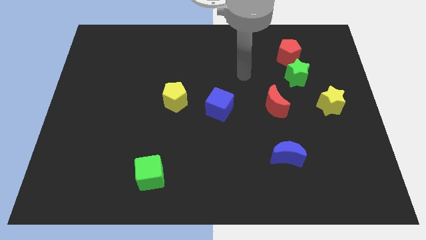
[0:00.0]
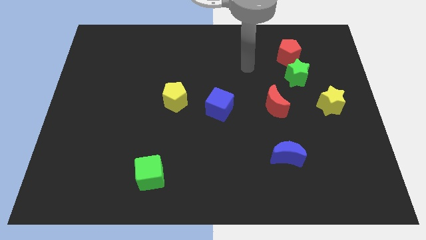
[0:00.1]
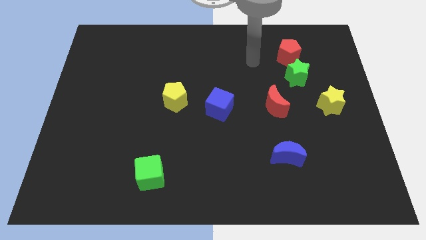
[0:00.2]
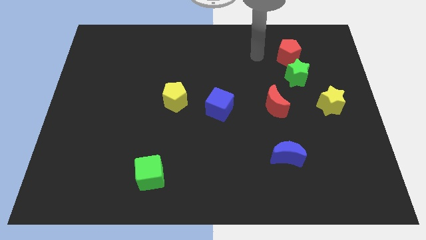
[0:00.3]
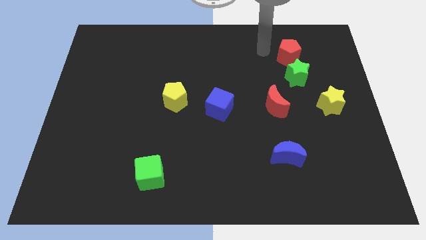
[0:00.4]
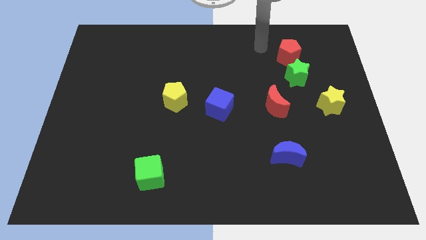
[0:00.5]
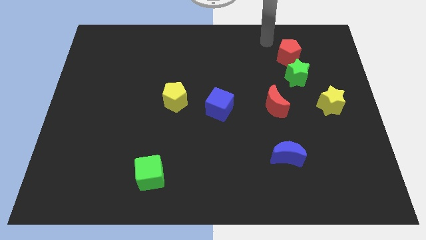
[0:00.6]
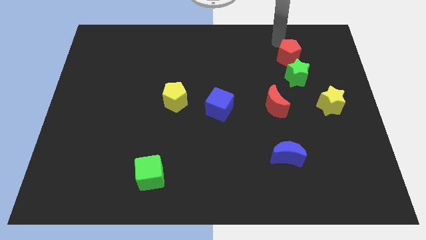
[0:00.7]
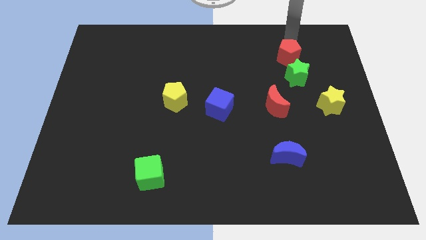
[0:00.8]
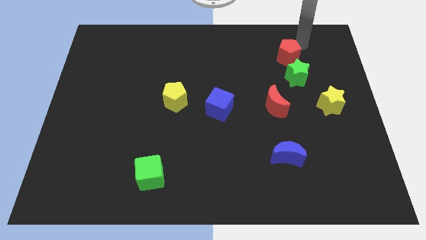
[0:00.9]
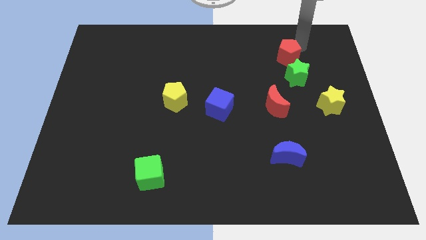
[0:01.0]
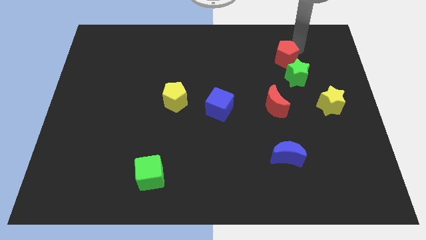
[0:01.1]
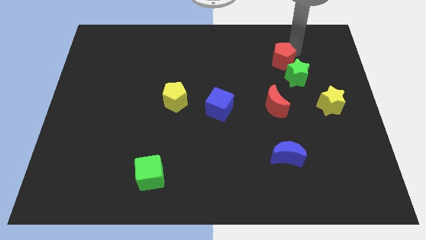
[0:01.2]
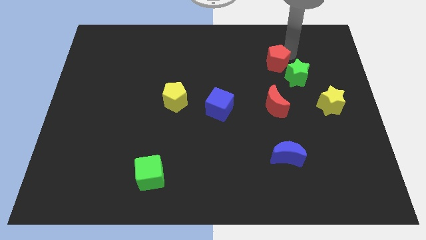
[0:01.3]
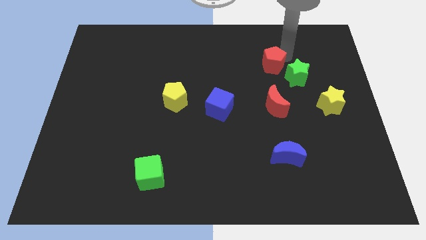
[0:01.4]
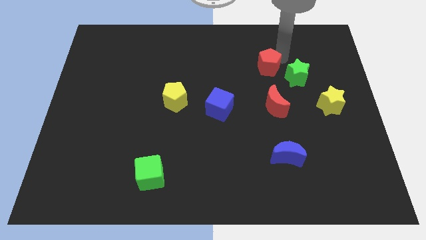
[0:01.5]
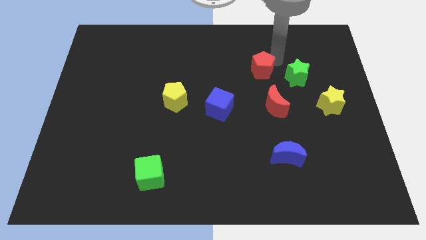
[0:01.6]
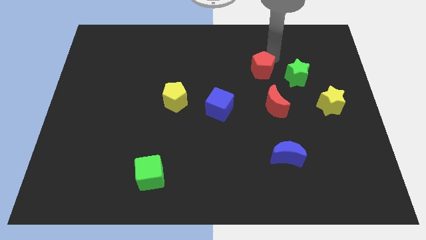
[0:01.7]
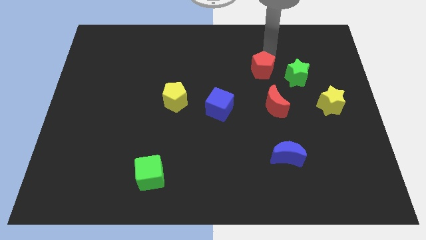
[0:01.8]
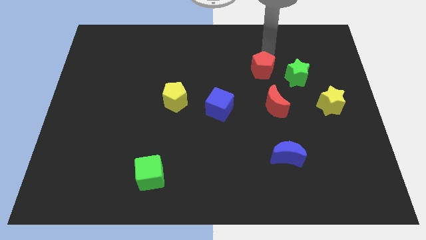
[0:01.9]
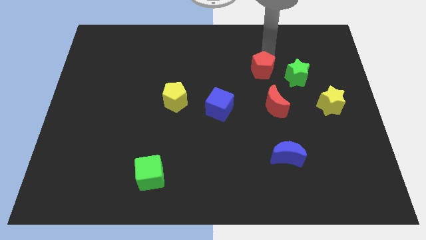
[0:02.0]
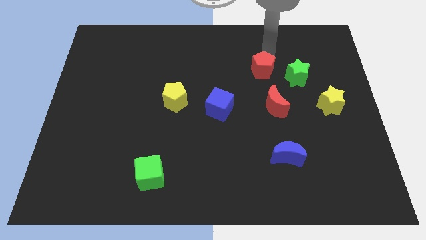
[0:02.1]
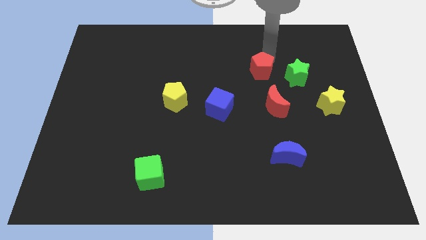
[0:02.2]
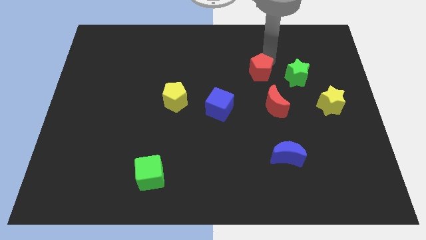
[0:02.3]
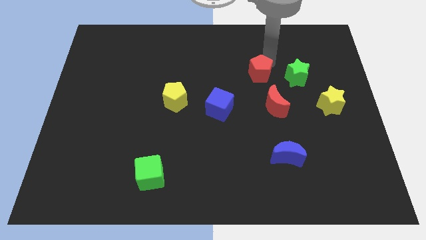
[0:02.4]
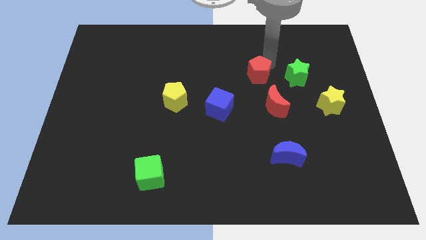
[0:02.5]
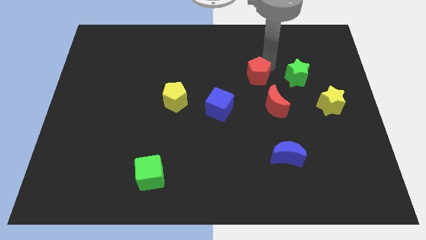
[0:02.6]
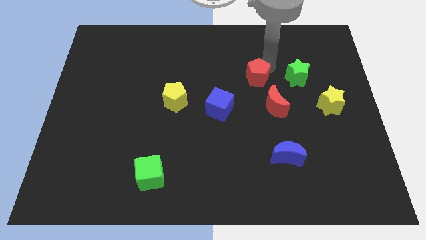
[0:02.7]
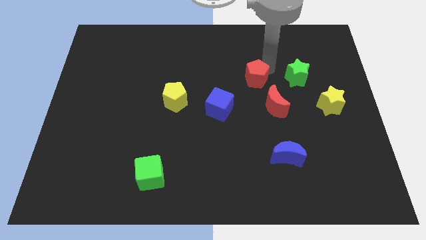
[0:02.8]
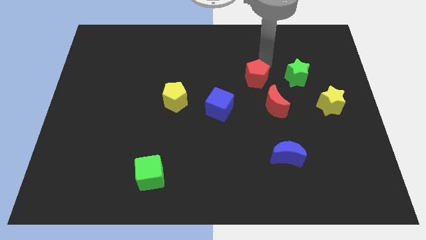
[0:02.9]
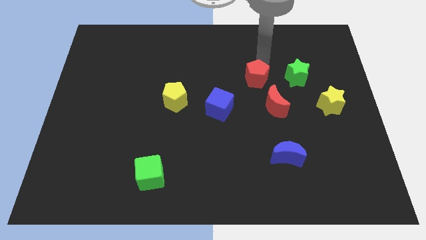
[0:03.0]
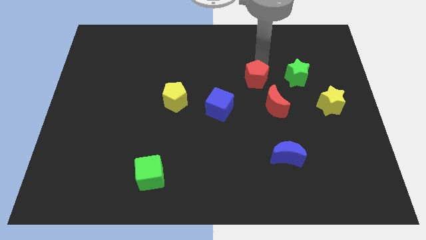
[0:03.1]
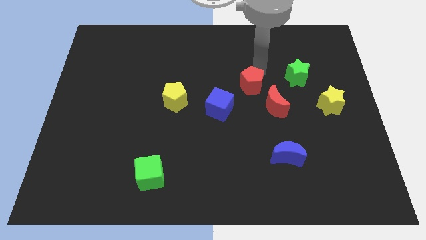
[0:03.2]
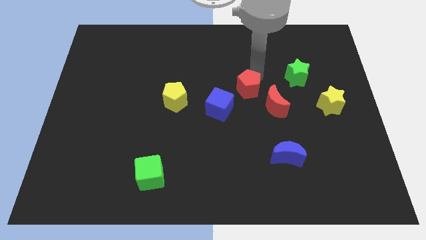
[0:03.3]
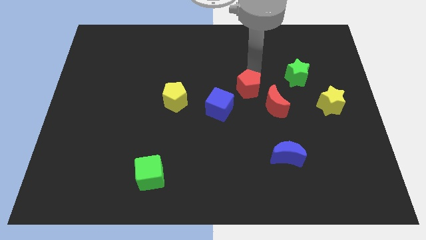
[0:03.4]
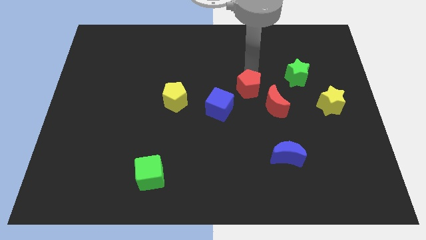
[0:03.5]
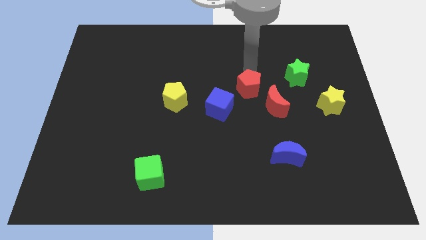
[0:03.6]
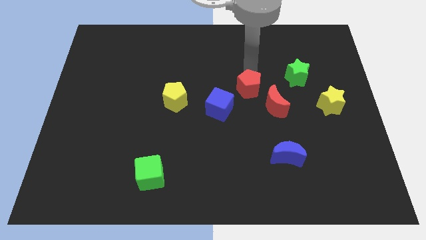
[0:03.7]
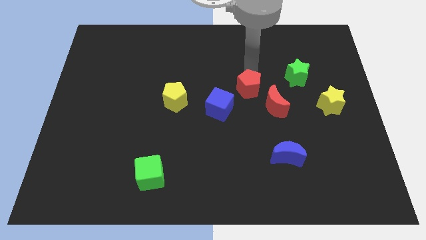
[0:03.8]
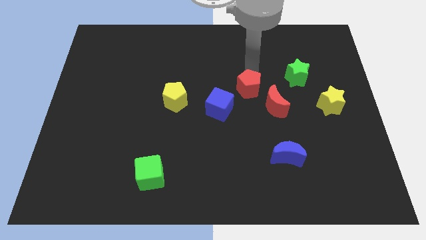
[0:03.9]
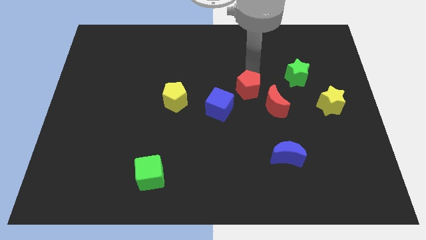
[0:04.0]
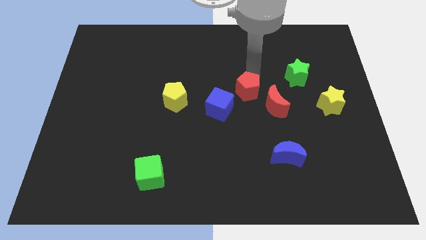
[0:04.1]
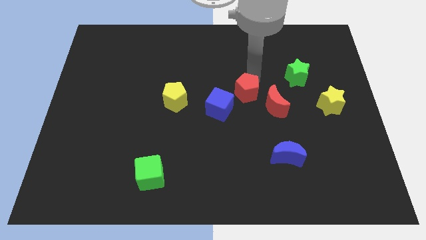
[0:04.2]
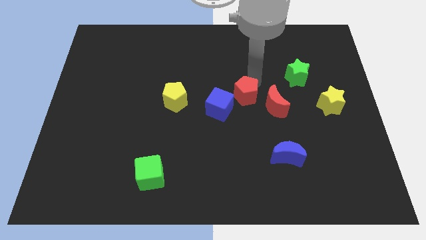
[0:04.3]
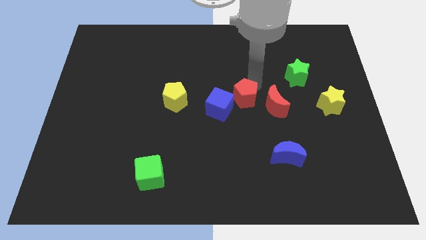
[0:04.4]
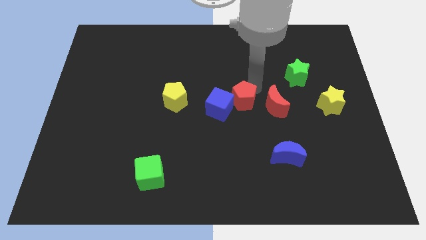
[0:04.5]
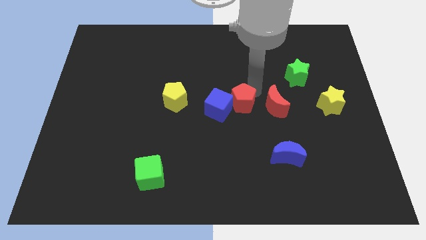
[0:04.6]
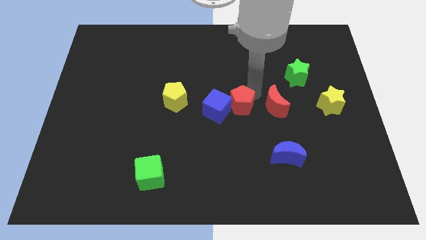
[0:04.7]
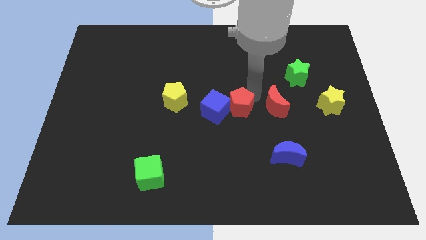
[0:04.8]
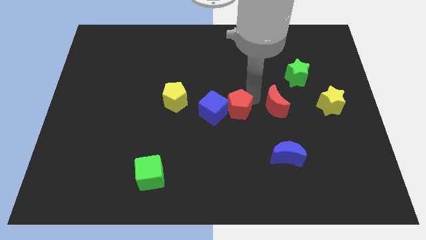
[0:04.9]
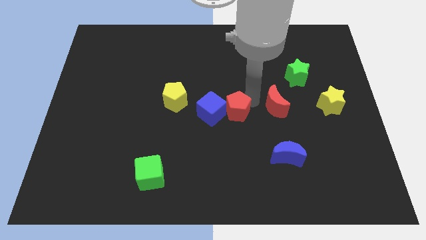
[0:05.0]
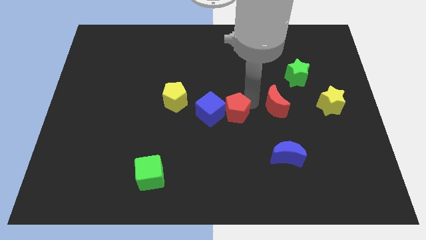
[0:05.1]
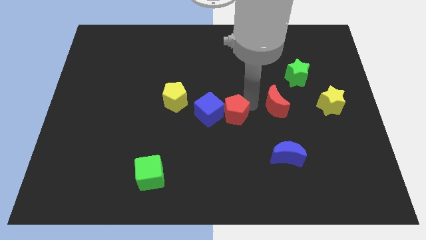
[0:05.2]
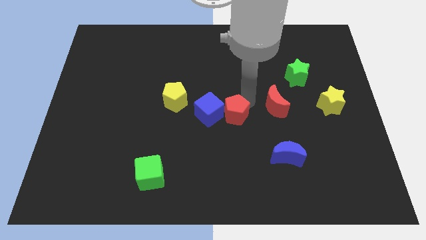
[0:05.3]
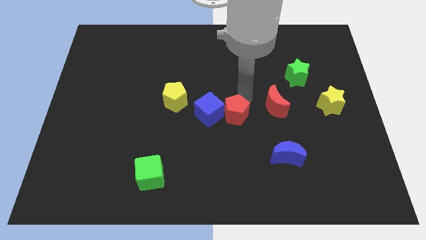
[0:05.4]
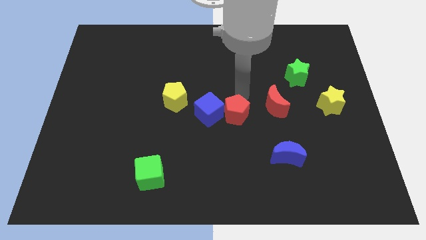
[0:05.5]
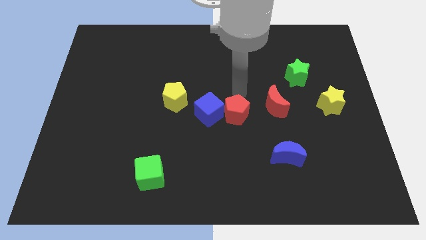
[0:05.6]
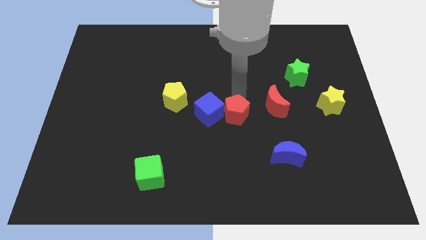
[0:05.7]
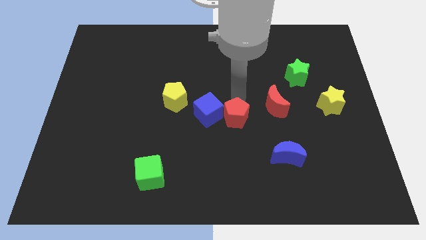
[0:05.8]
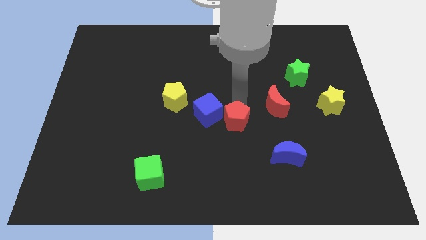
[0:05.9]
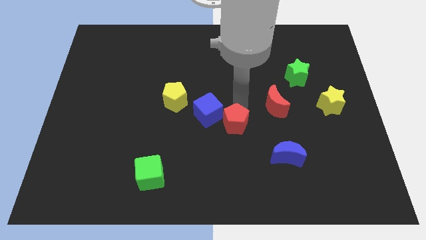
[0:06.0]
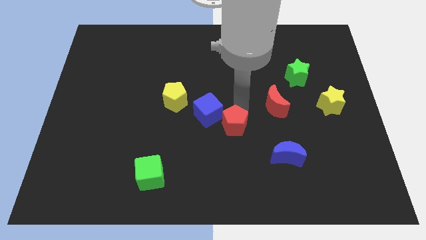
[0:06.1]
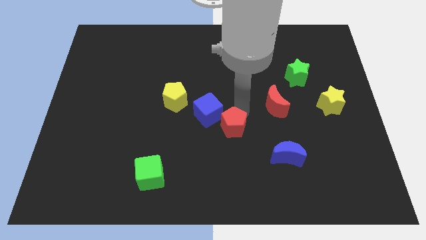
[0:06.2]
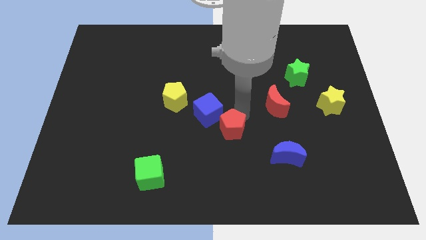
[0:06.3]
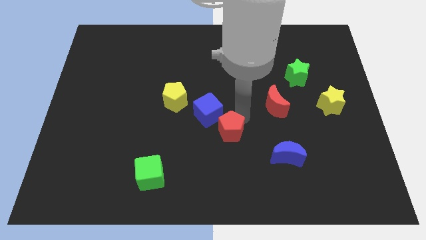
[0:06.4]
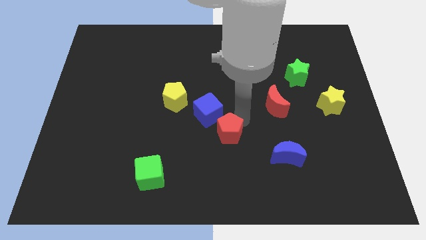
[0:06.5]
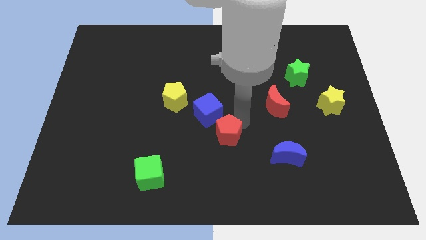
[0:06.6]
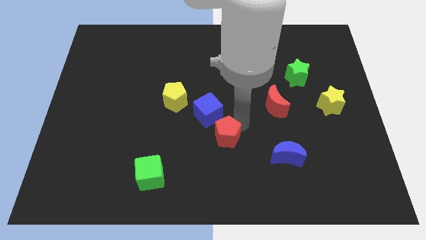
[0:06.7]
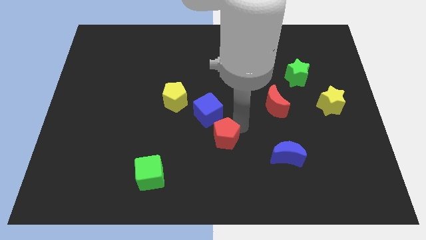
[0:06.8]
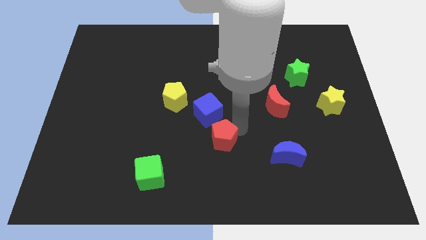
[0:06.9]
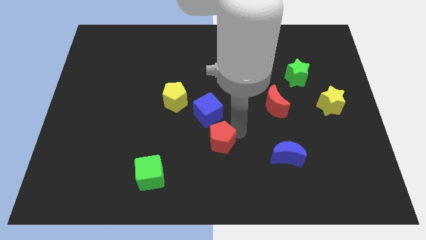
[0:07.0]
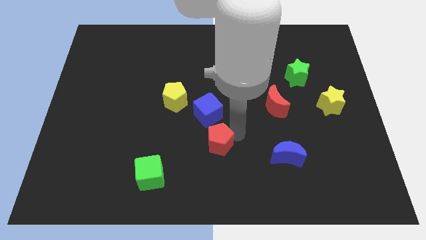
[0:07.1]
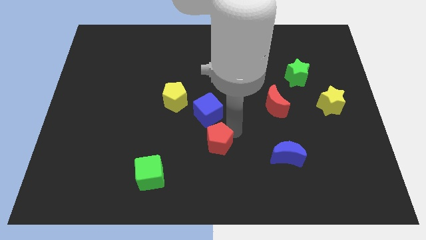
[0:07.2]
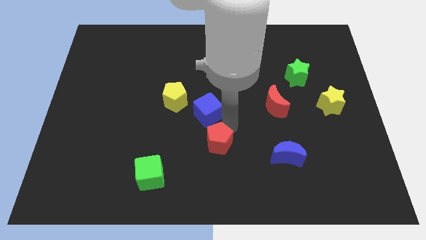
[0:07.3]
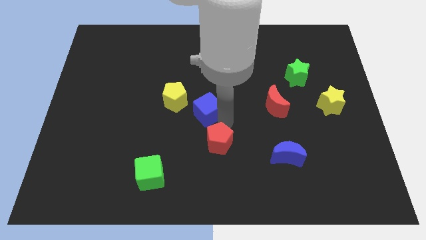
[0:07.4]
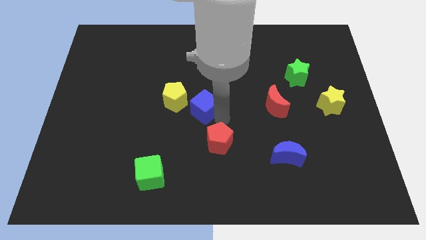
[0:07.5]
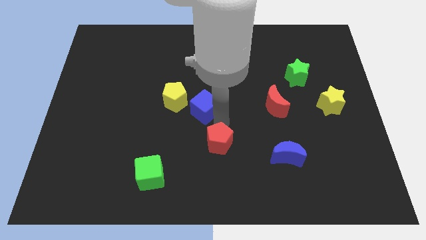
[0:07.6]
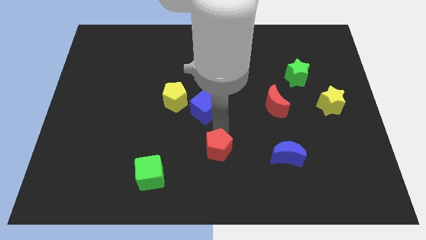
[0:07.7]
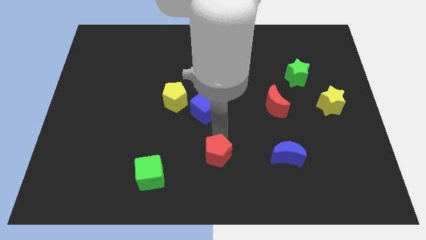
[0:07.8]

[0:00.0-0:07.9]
move the red pentagon to the bottom side
